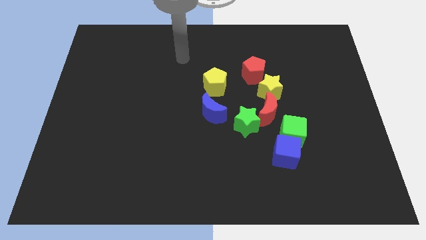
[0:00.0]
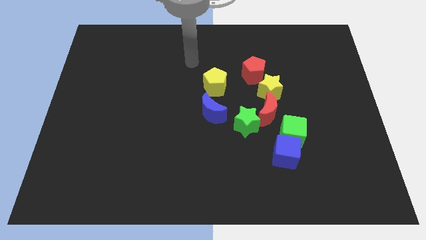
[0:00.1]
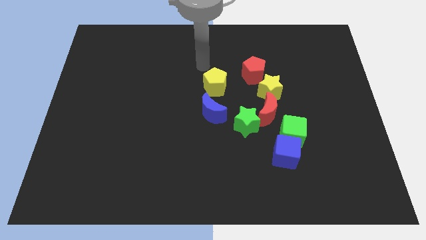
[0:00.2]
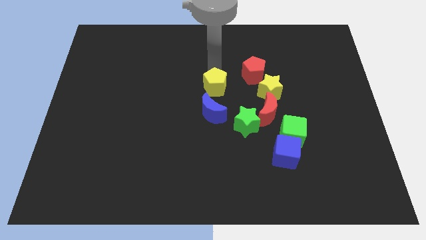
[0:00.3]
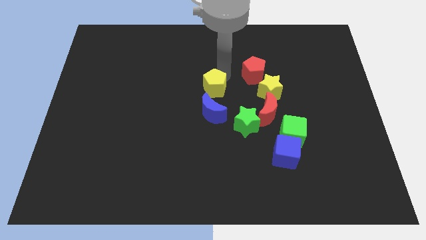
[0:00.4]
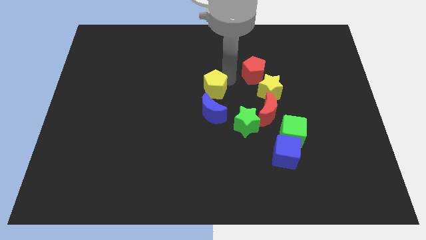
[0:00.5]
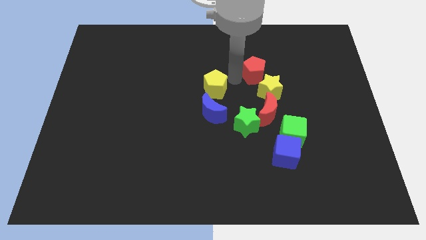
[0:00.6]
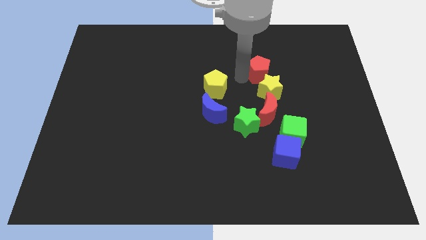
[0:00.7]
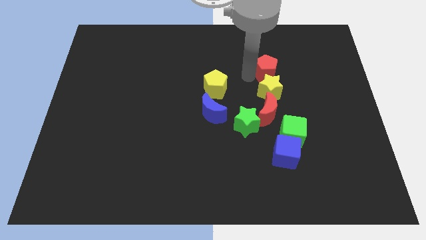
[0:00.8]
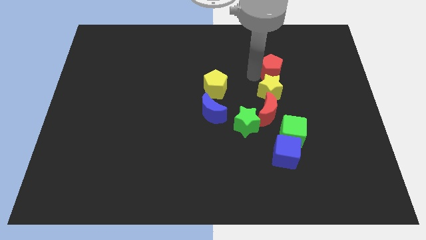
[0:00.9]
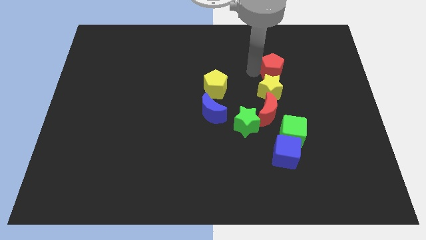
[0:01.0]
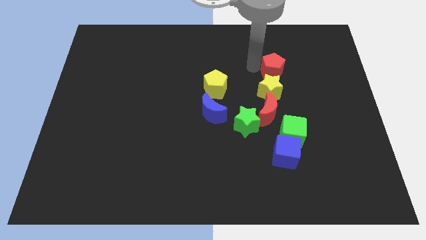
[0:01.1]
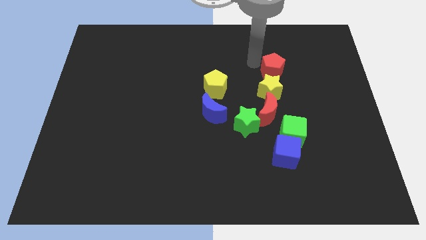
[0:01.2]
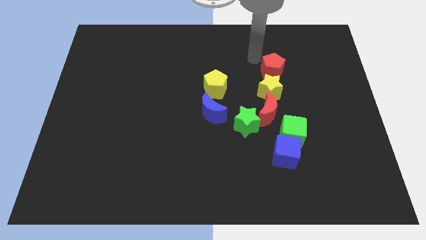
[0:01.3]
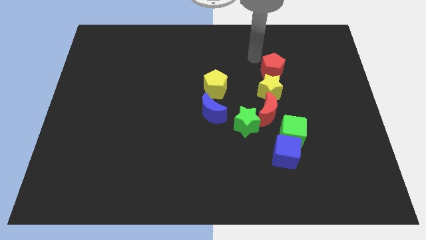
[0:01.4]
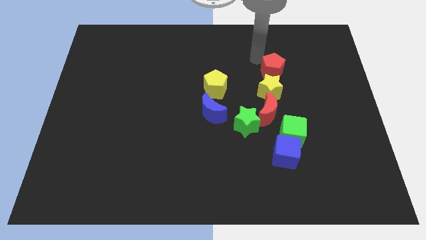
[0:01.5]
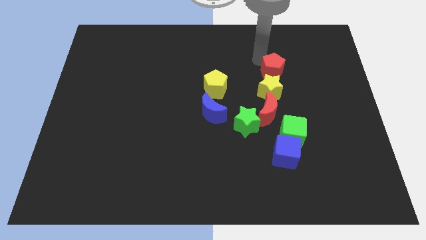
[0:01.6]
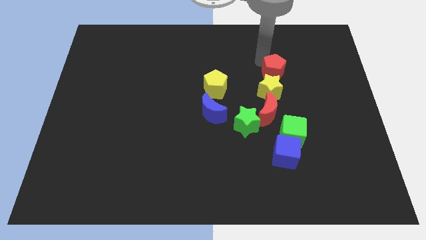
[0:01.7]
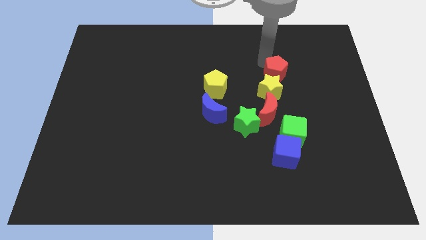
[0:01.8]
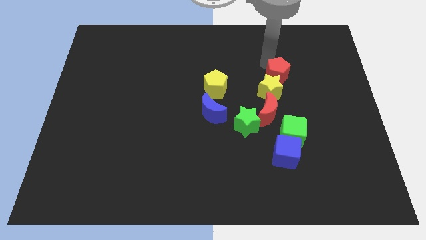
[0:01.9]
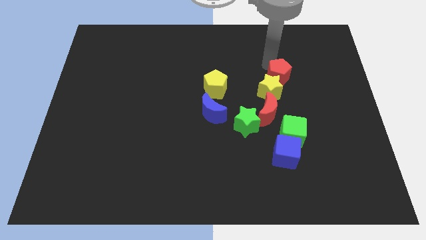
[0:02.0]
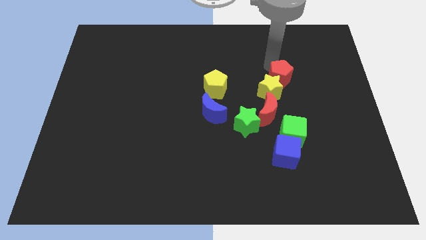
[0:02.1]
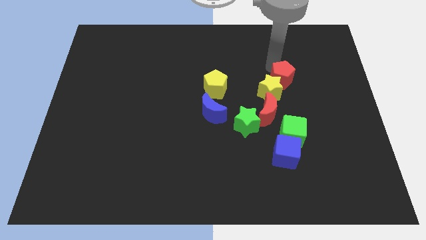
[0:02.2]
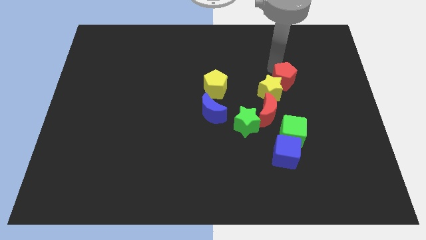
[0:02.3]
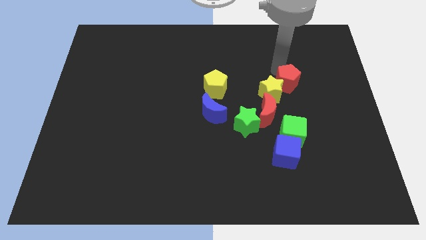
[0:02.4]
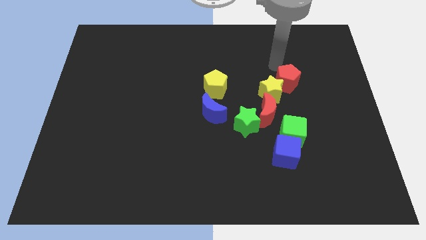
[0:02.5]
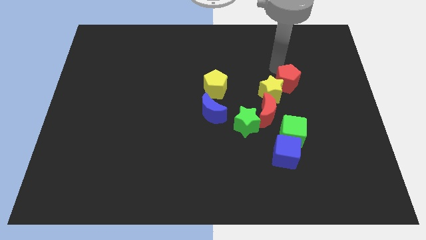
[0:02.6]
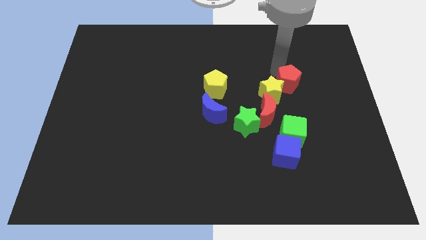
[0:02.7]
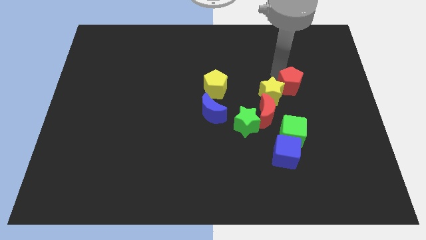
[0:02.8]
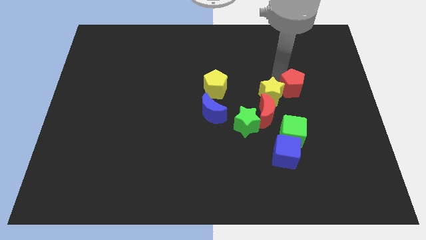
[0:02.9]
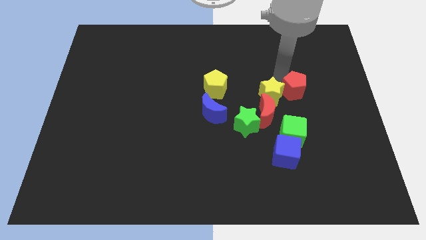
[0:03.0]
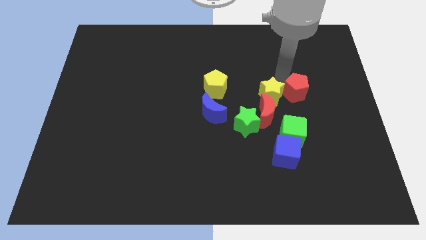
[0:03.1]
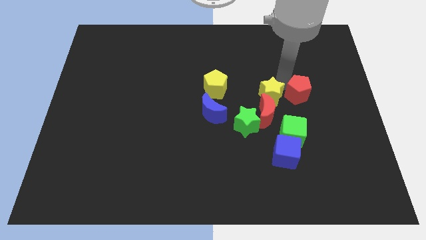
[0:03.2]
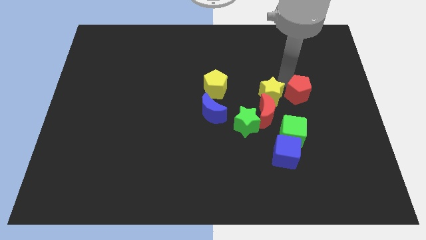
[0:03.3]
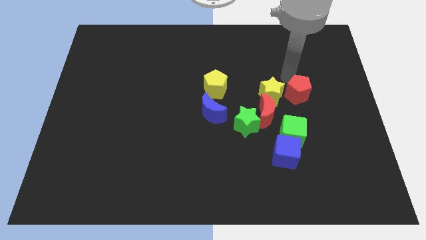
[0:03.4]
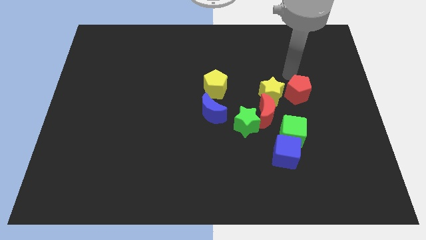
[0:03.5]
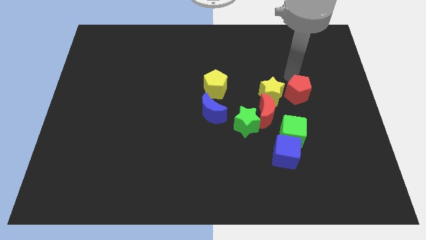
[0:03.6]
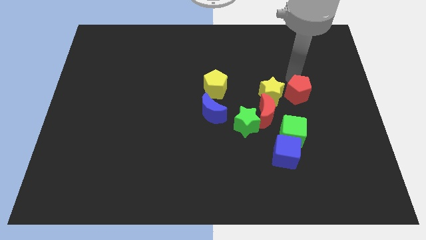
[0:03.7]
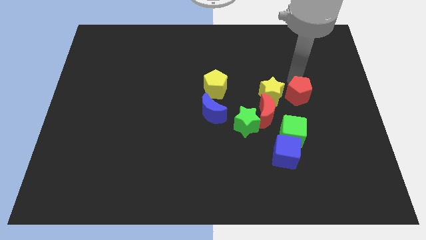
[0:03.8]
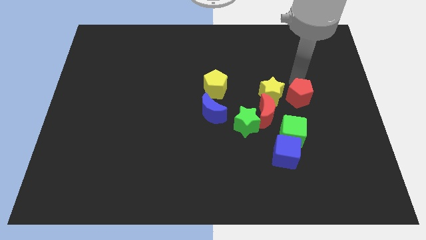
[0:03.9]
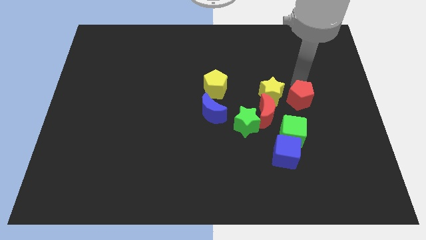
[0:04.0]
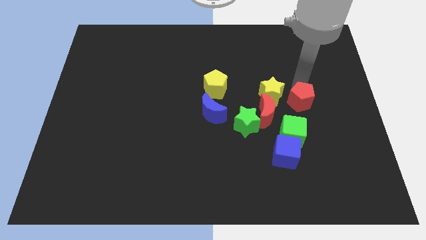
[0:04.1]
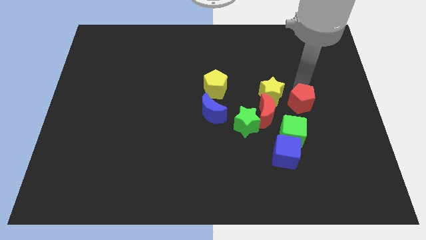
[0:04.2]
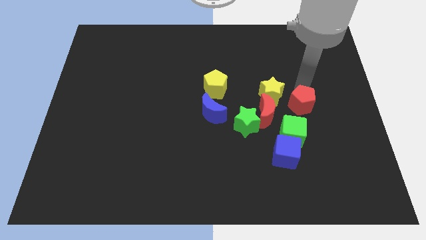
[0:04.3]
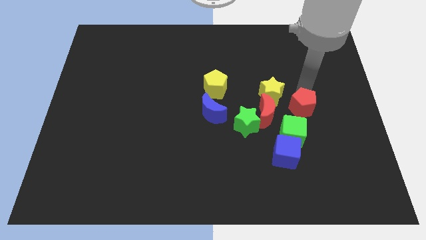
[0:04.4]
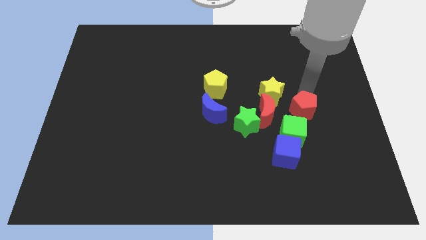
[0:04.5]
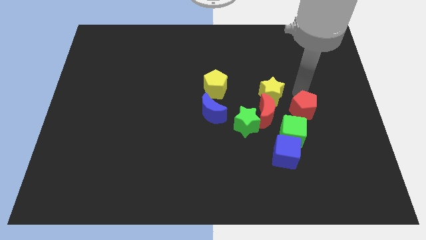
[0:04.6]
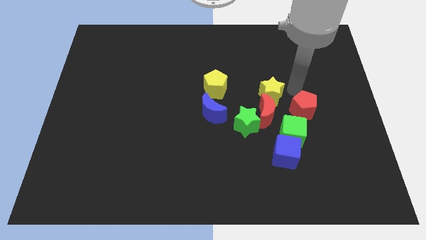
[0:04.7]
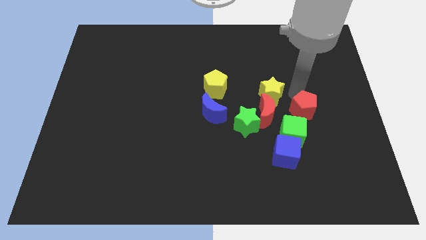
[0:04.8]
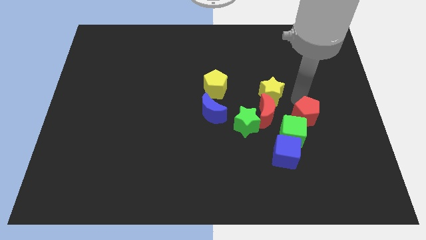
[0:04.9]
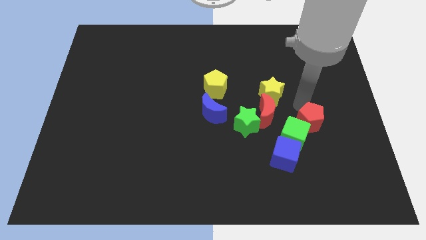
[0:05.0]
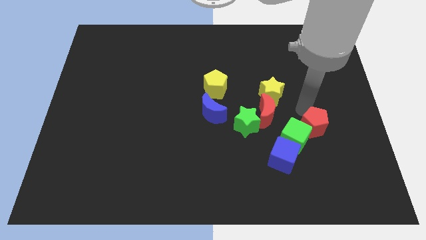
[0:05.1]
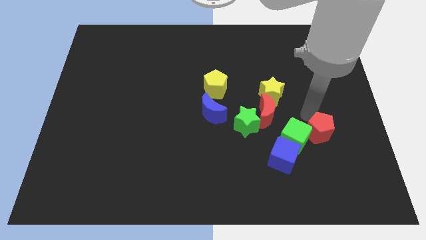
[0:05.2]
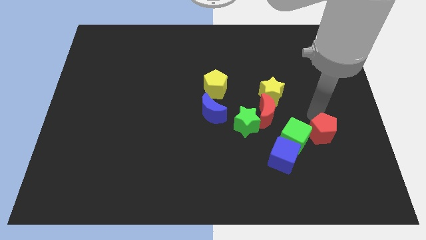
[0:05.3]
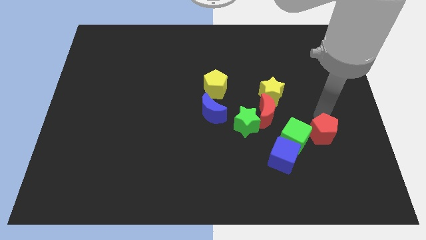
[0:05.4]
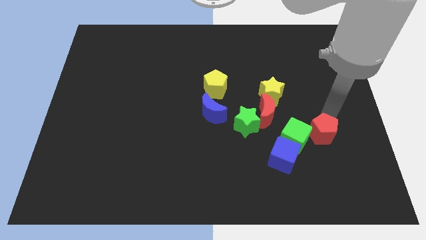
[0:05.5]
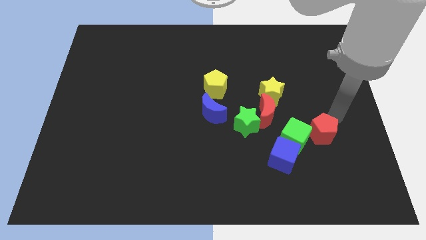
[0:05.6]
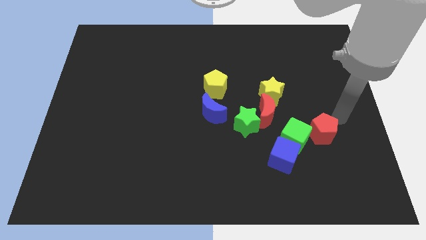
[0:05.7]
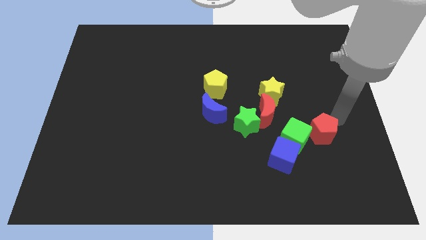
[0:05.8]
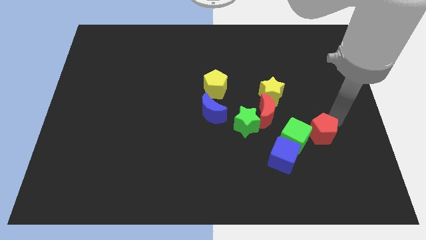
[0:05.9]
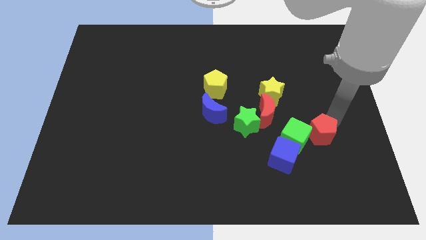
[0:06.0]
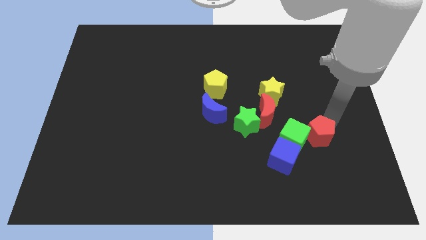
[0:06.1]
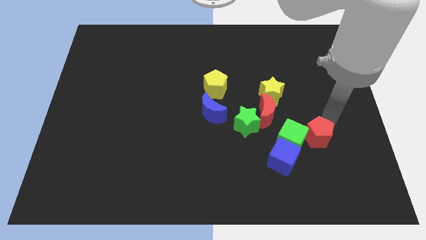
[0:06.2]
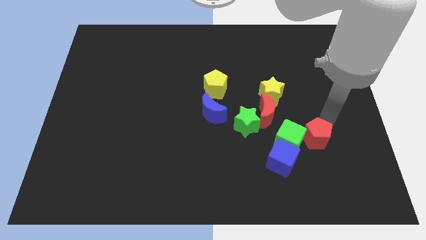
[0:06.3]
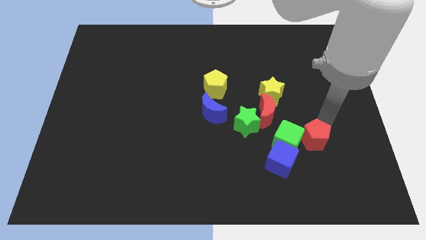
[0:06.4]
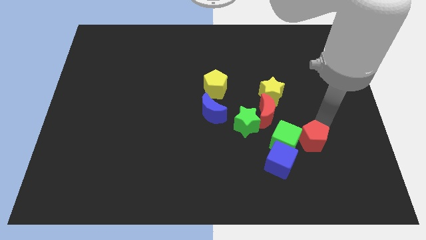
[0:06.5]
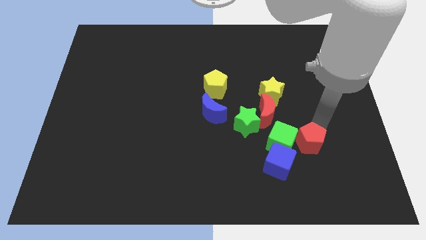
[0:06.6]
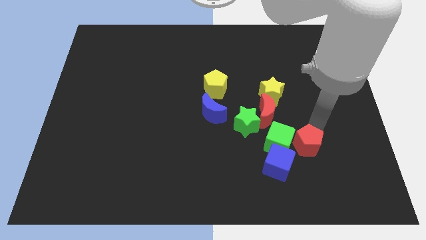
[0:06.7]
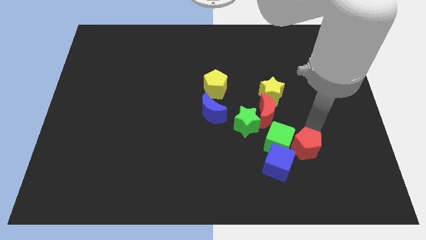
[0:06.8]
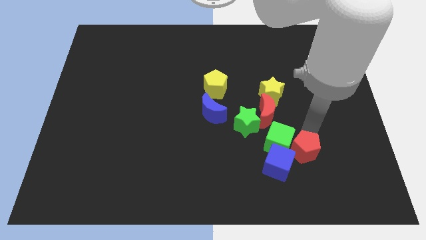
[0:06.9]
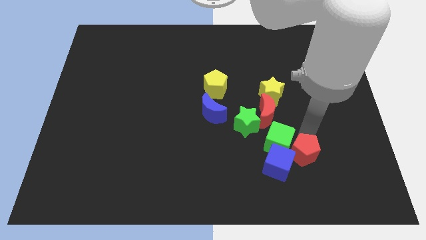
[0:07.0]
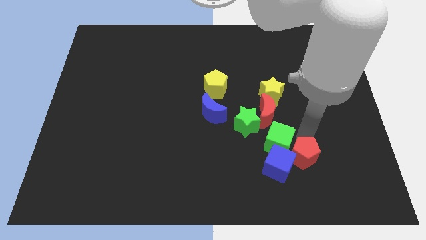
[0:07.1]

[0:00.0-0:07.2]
move the red pentagon next to the blue cube
